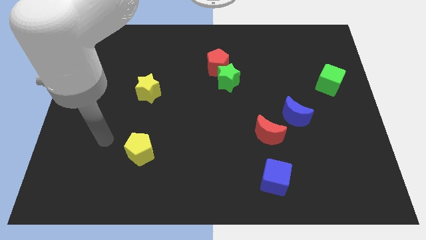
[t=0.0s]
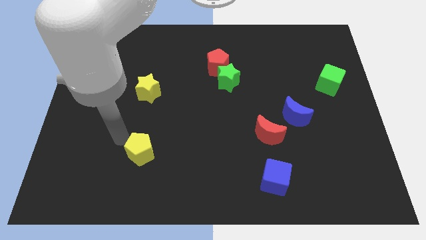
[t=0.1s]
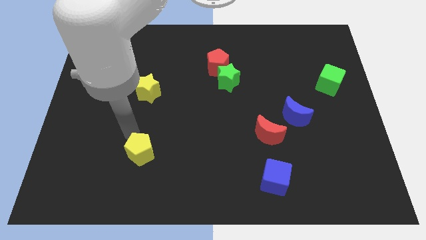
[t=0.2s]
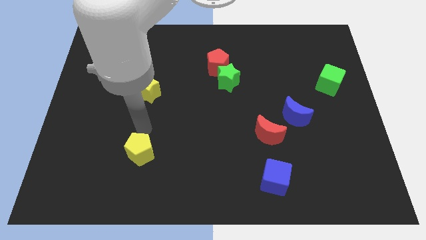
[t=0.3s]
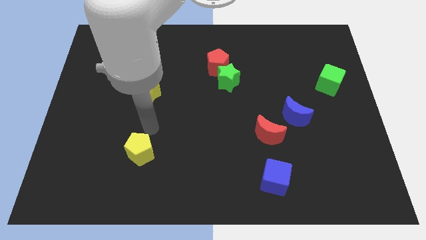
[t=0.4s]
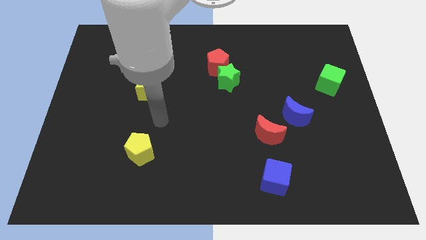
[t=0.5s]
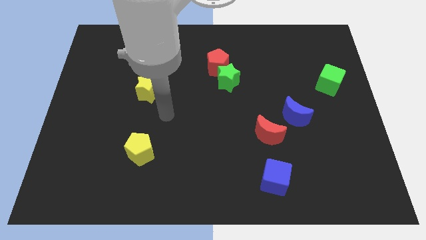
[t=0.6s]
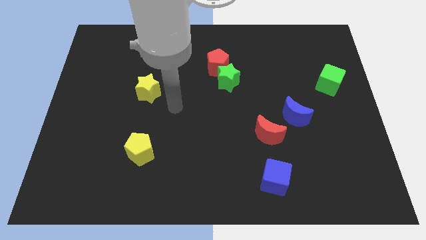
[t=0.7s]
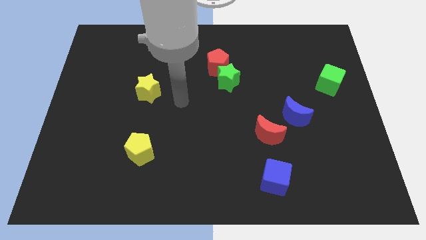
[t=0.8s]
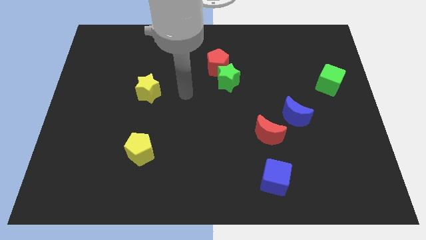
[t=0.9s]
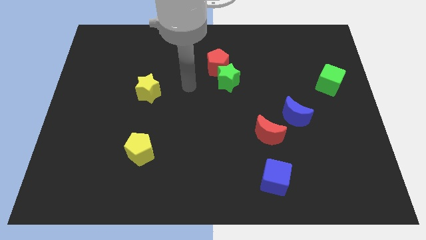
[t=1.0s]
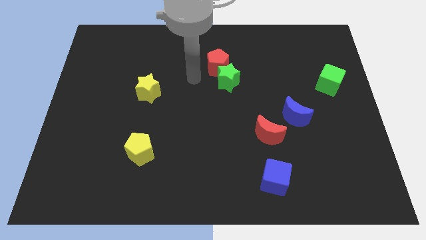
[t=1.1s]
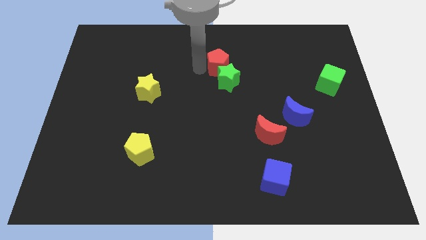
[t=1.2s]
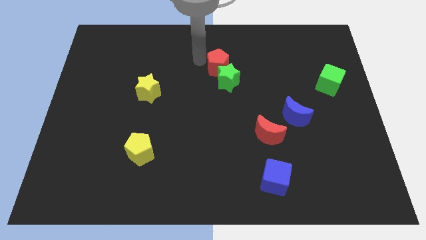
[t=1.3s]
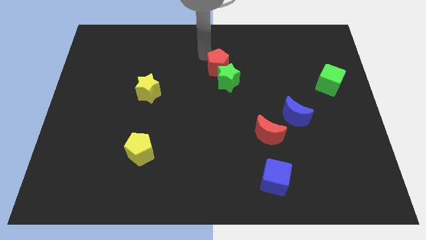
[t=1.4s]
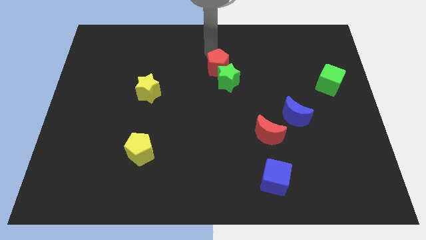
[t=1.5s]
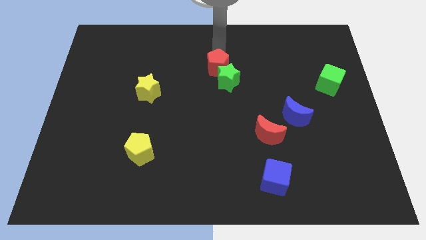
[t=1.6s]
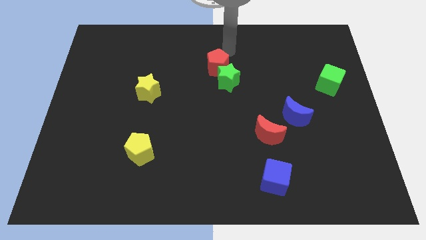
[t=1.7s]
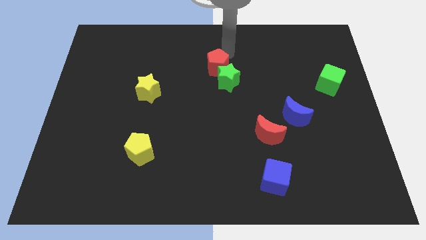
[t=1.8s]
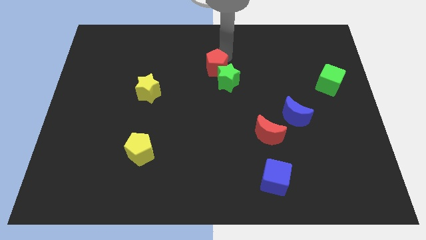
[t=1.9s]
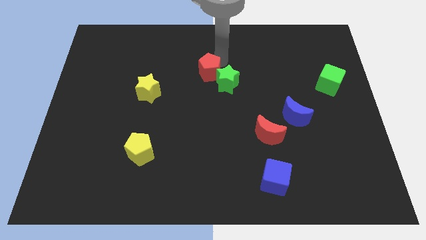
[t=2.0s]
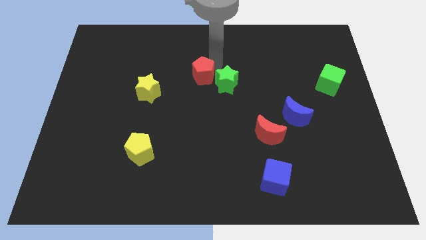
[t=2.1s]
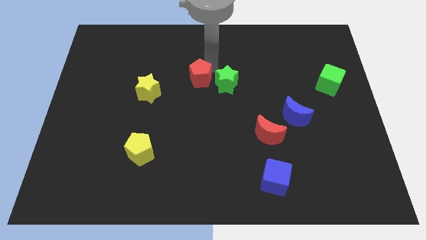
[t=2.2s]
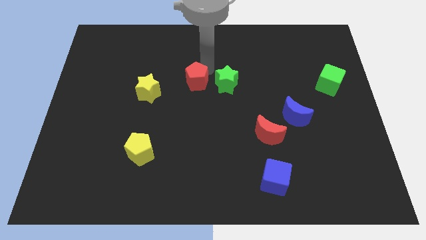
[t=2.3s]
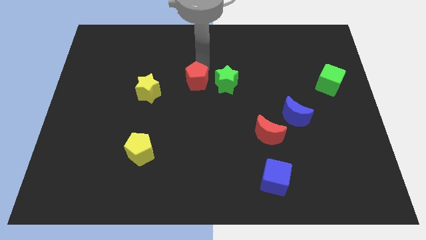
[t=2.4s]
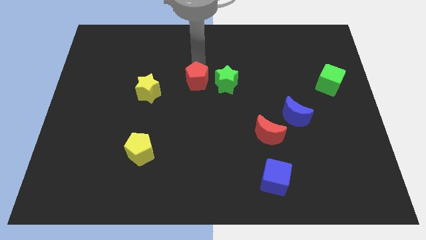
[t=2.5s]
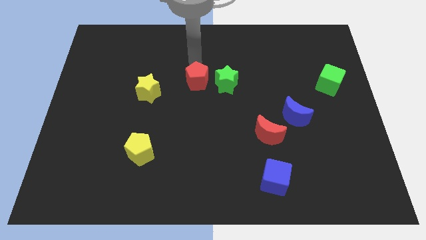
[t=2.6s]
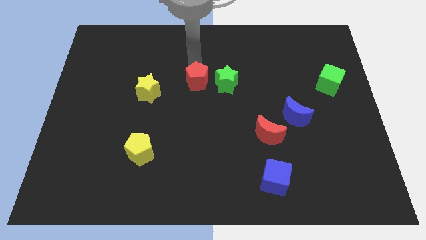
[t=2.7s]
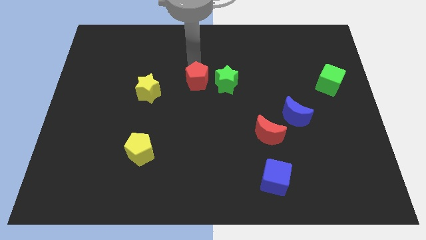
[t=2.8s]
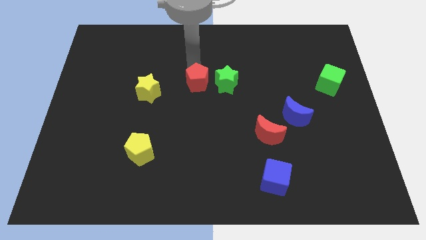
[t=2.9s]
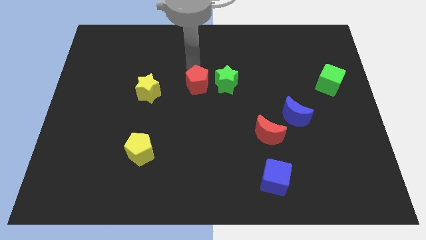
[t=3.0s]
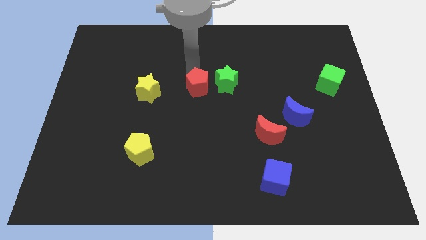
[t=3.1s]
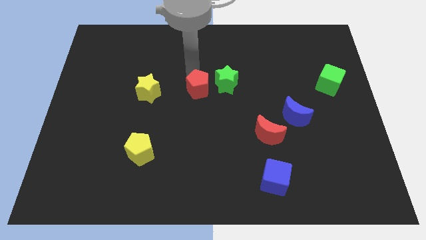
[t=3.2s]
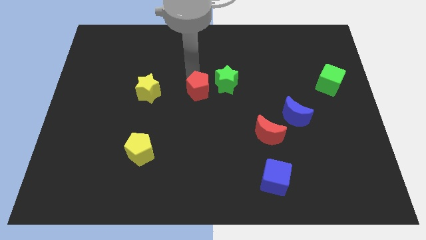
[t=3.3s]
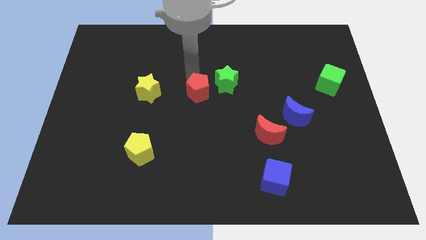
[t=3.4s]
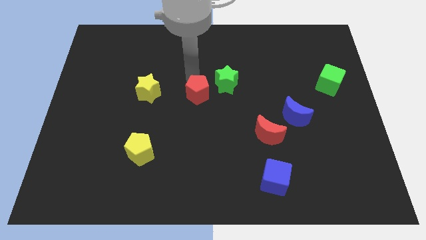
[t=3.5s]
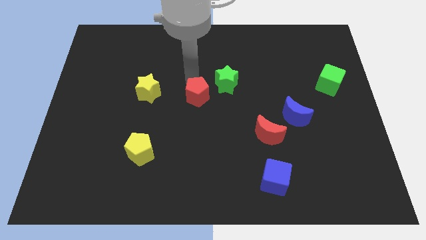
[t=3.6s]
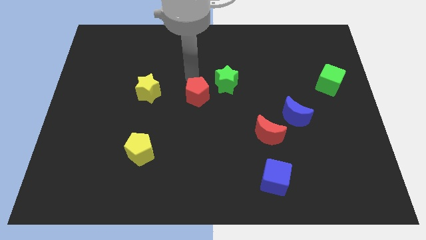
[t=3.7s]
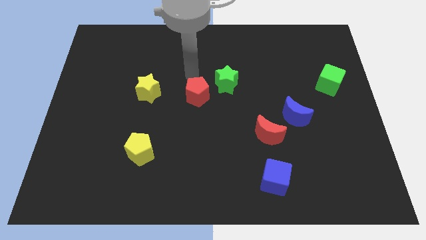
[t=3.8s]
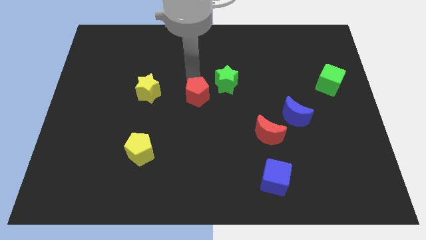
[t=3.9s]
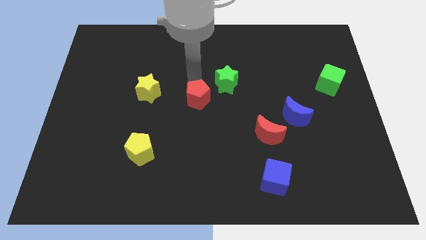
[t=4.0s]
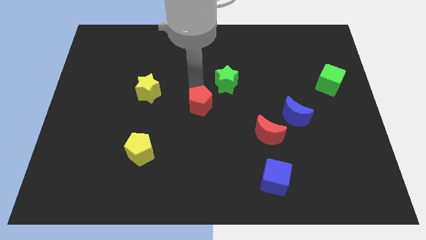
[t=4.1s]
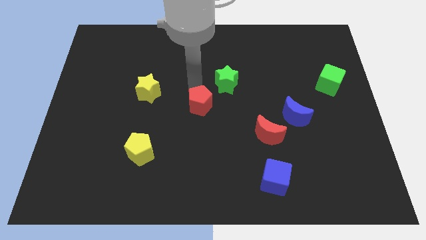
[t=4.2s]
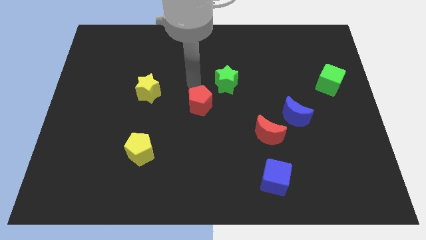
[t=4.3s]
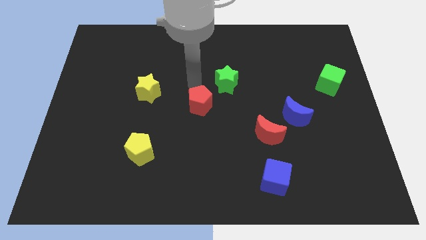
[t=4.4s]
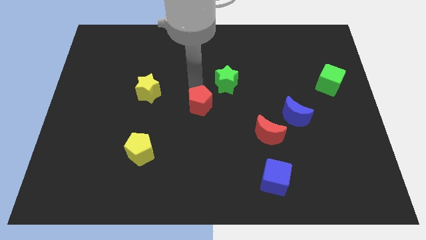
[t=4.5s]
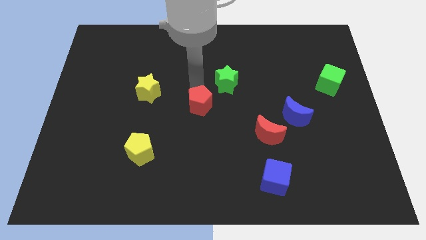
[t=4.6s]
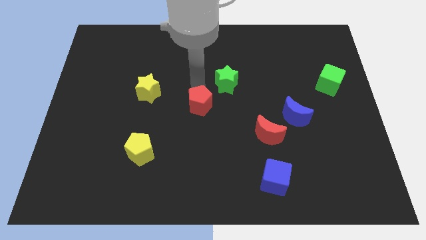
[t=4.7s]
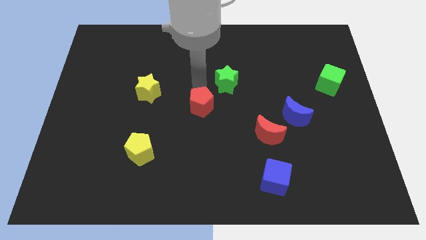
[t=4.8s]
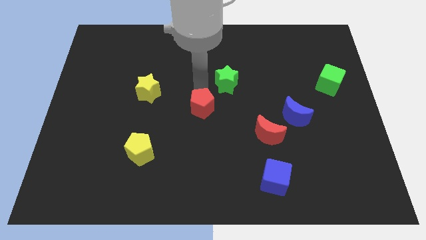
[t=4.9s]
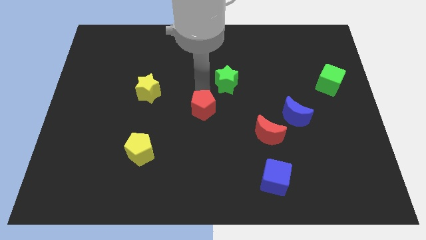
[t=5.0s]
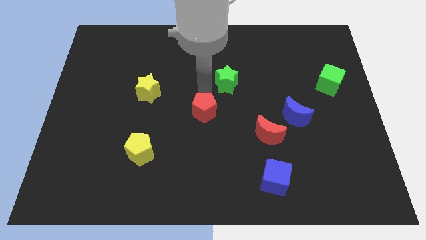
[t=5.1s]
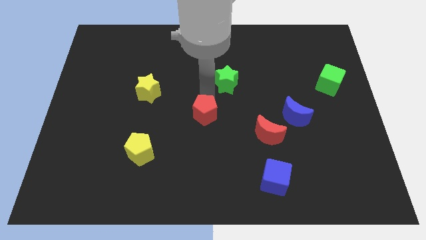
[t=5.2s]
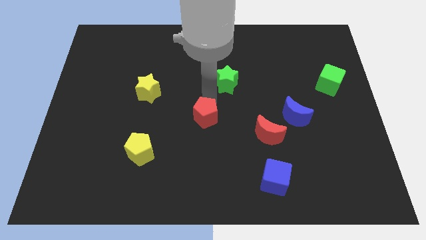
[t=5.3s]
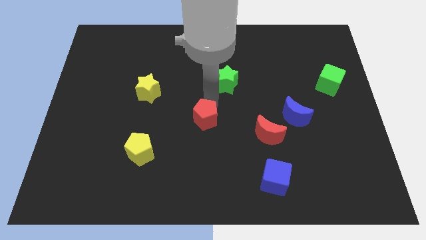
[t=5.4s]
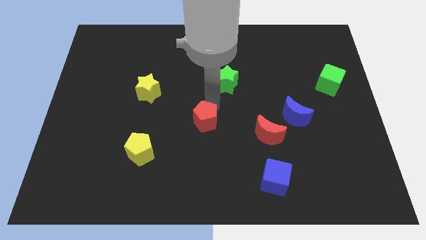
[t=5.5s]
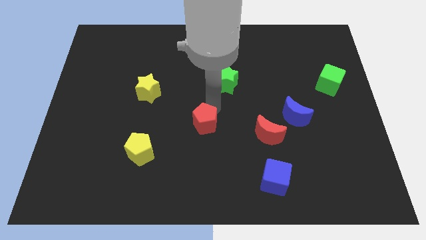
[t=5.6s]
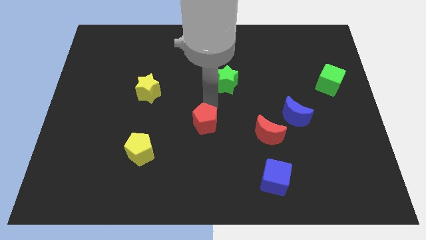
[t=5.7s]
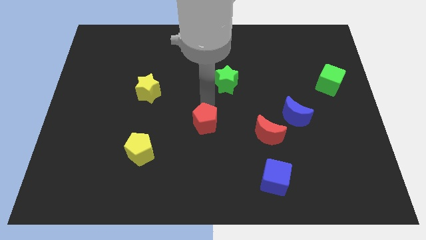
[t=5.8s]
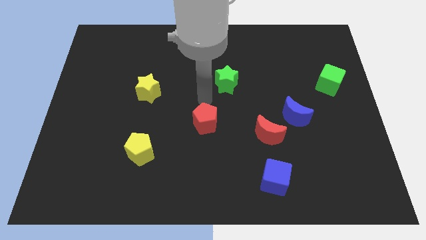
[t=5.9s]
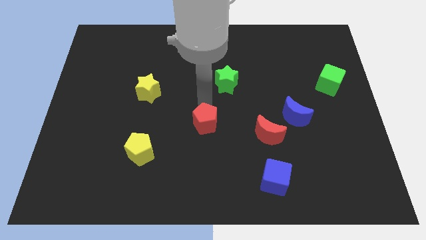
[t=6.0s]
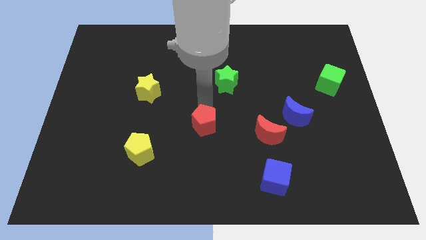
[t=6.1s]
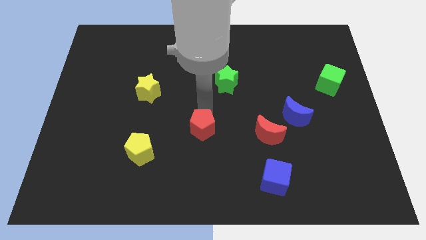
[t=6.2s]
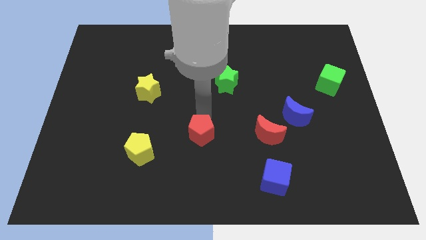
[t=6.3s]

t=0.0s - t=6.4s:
move the red pentagon downwards

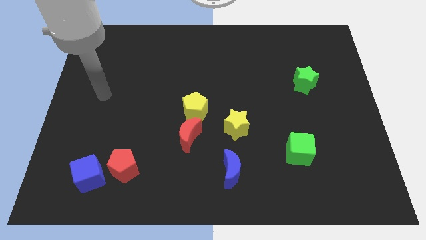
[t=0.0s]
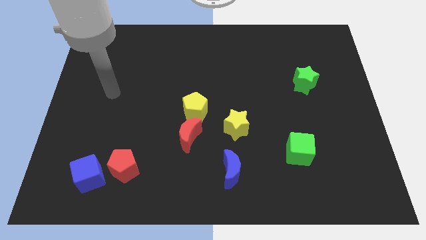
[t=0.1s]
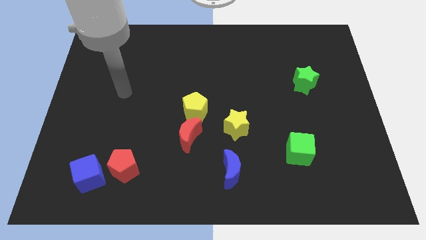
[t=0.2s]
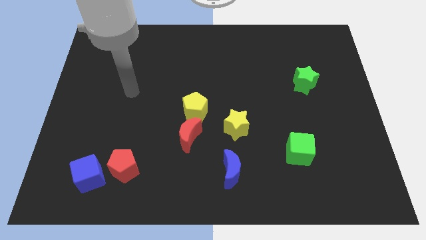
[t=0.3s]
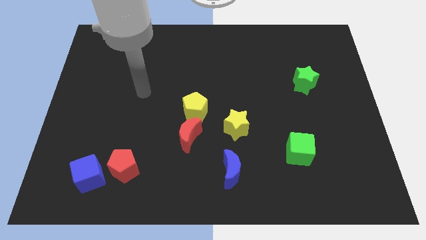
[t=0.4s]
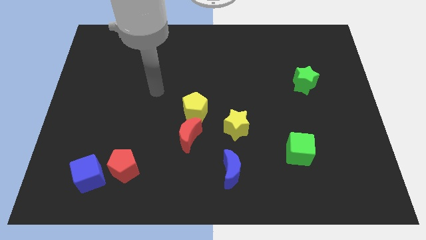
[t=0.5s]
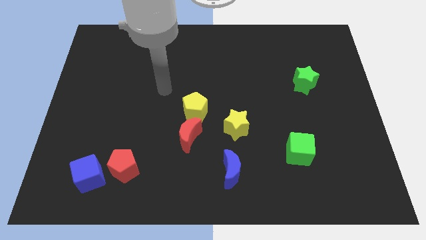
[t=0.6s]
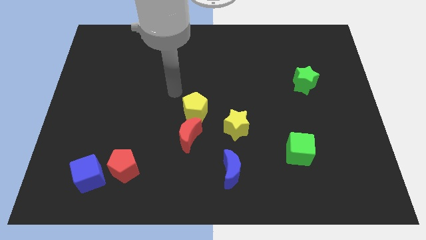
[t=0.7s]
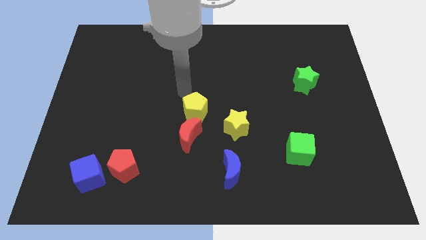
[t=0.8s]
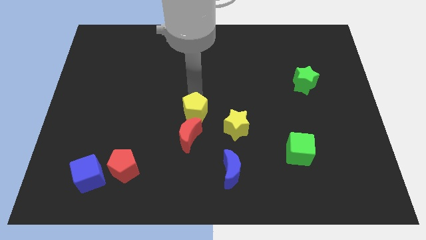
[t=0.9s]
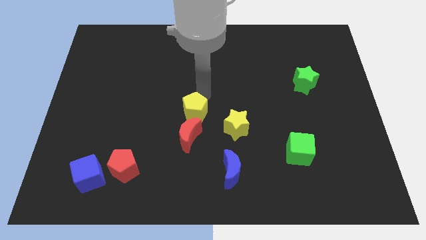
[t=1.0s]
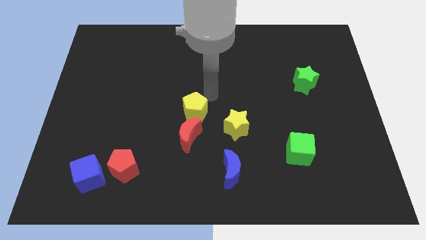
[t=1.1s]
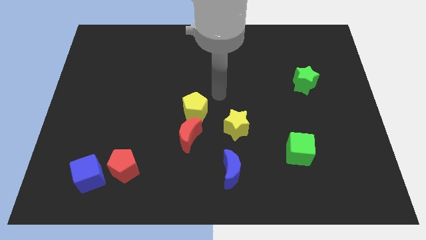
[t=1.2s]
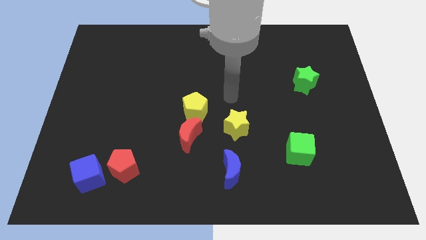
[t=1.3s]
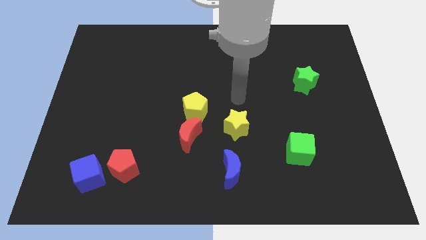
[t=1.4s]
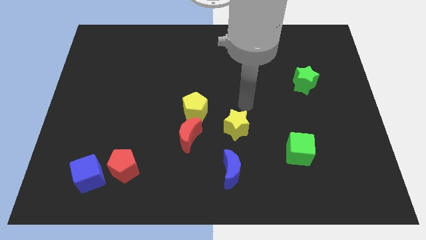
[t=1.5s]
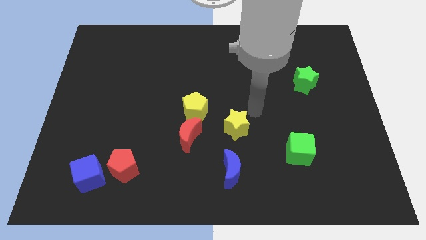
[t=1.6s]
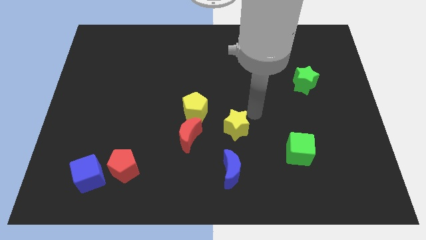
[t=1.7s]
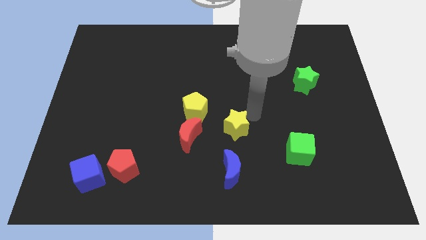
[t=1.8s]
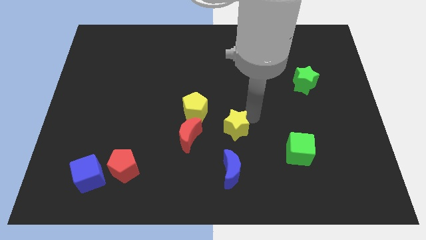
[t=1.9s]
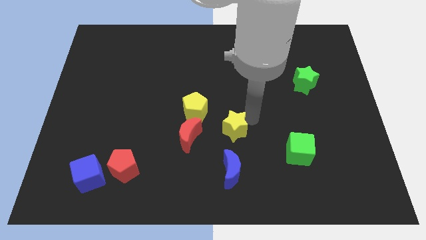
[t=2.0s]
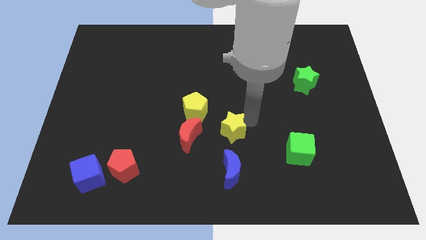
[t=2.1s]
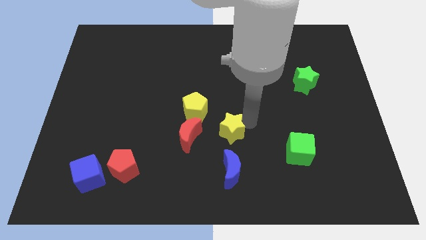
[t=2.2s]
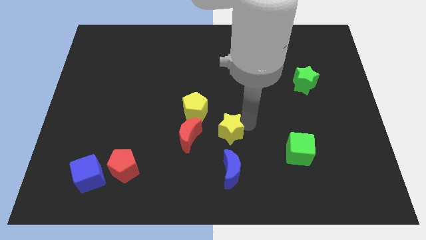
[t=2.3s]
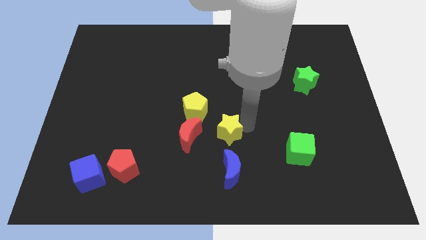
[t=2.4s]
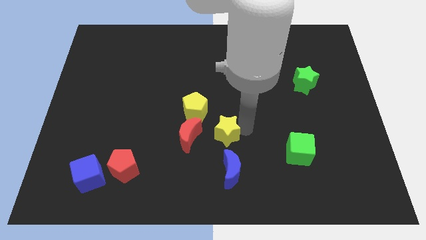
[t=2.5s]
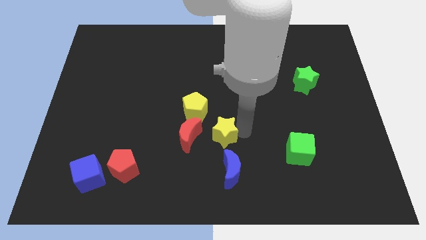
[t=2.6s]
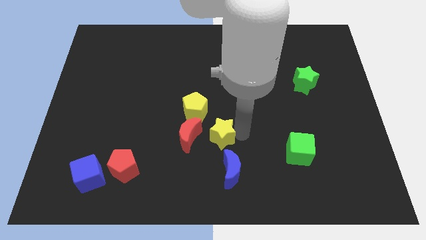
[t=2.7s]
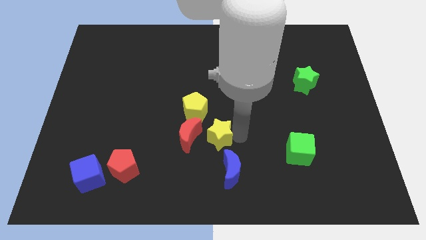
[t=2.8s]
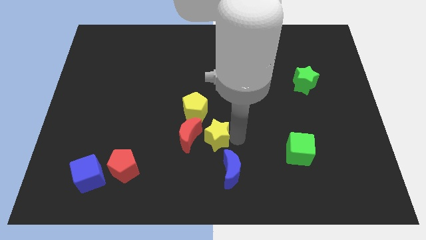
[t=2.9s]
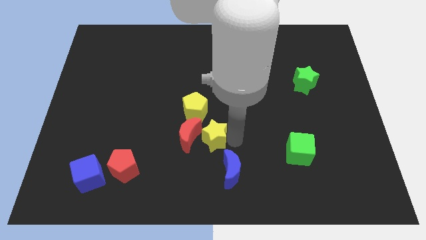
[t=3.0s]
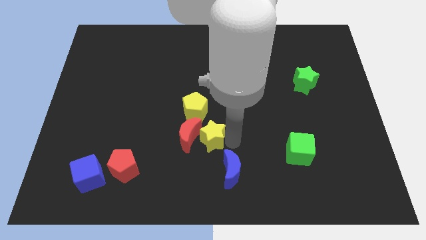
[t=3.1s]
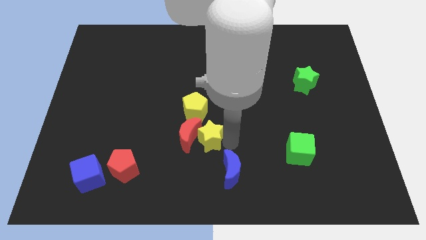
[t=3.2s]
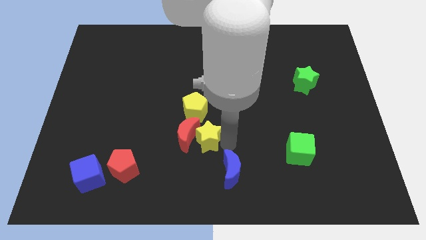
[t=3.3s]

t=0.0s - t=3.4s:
push the yellow star downwards and then left a little
